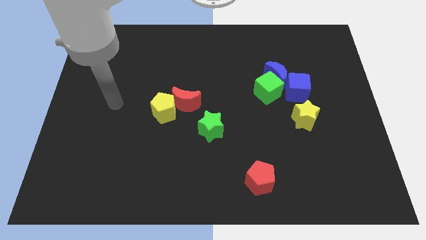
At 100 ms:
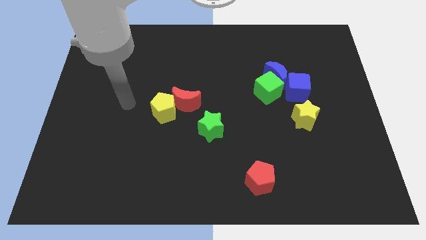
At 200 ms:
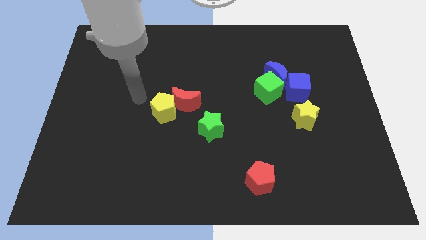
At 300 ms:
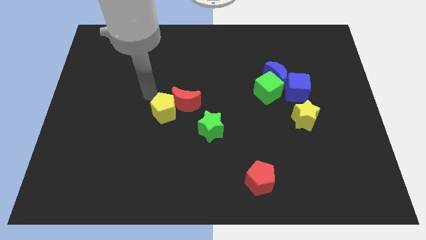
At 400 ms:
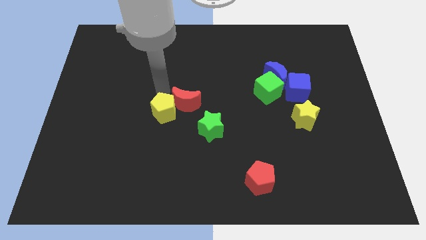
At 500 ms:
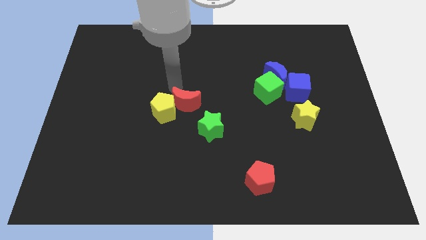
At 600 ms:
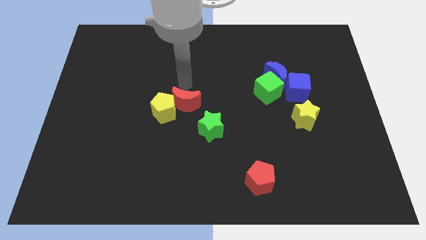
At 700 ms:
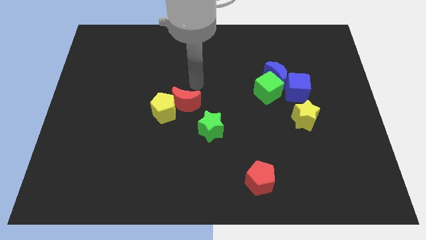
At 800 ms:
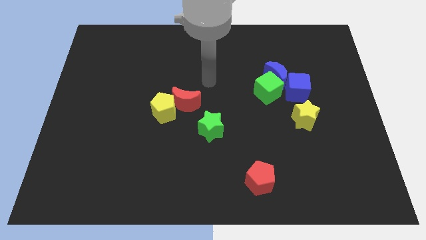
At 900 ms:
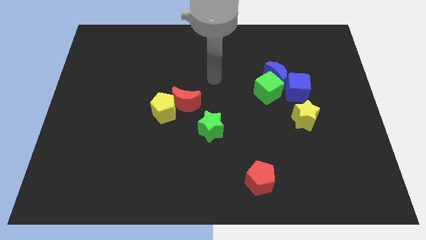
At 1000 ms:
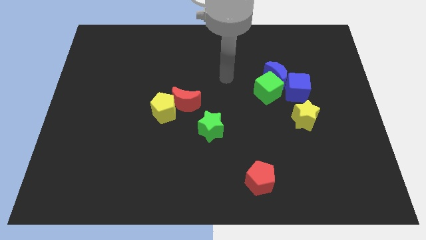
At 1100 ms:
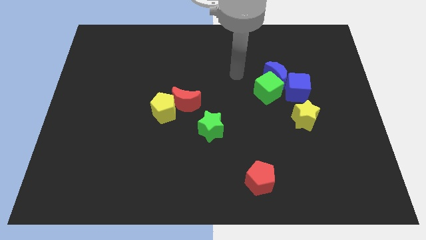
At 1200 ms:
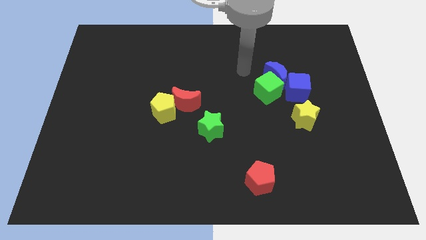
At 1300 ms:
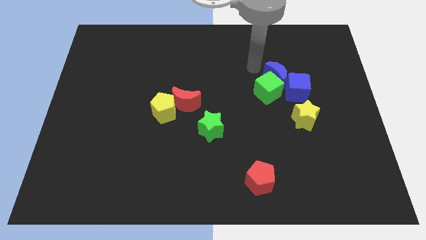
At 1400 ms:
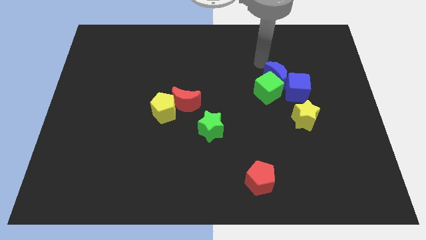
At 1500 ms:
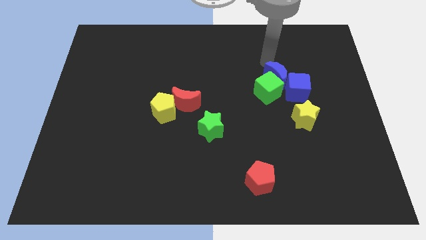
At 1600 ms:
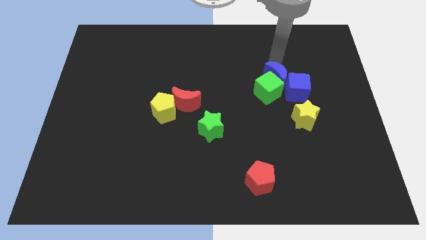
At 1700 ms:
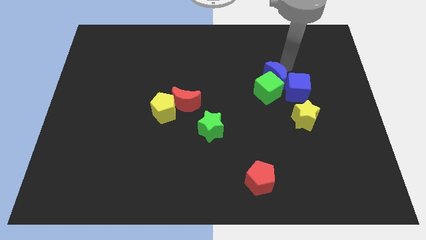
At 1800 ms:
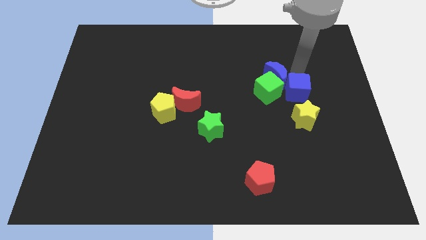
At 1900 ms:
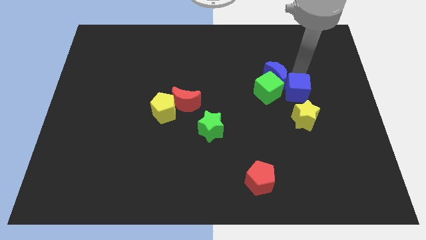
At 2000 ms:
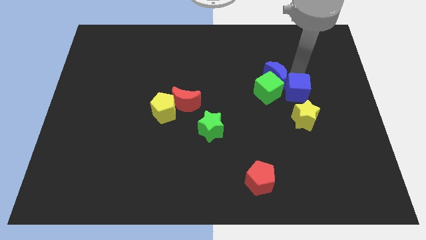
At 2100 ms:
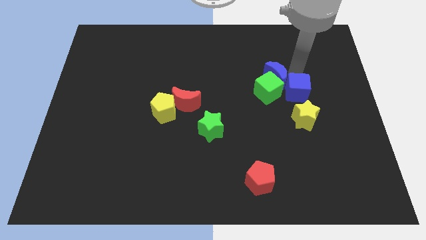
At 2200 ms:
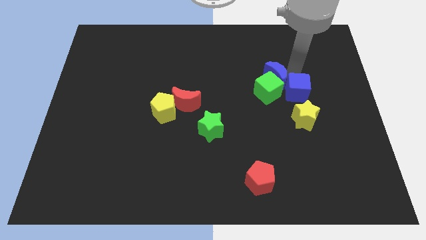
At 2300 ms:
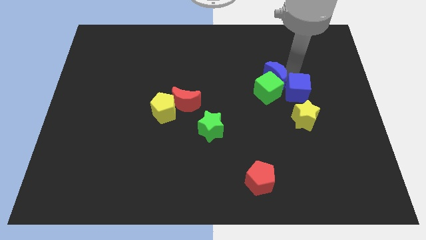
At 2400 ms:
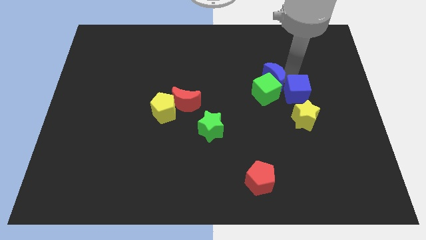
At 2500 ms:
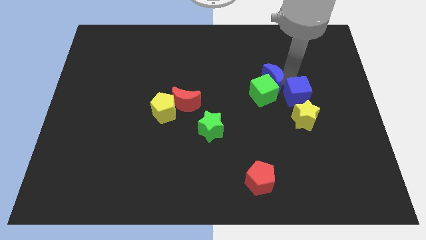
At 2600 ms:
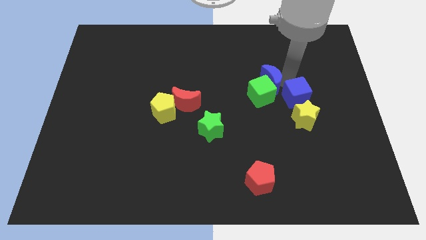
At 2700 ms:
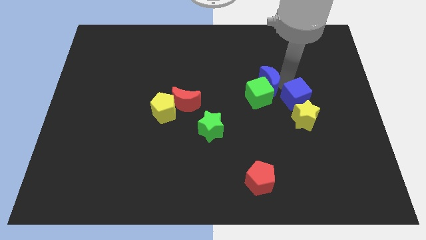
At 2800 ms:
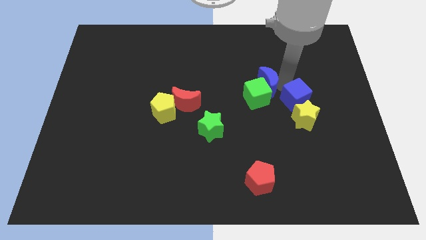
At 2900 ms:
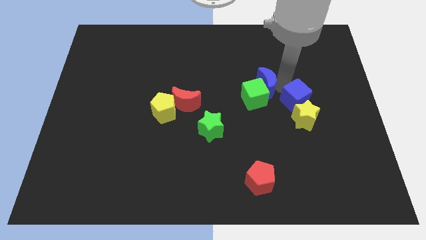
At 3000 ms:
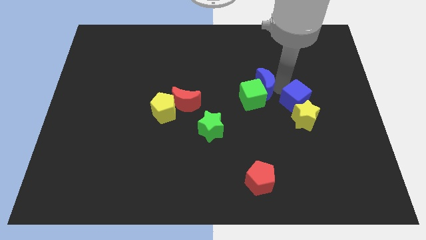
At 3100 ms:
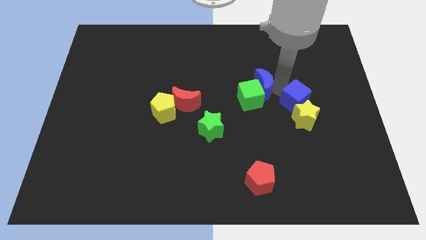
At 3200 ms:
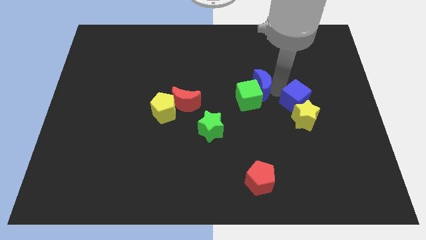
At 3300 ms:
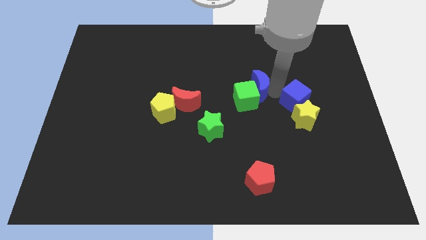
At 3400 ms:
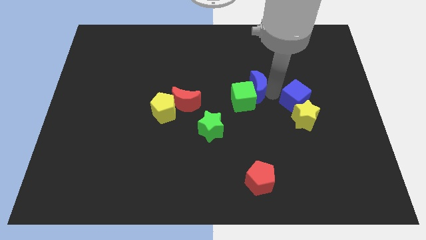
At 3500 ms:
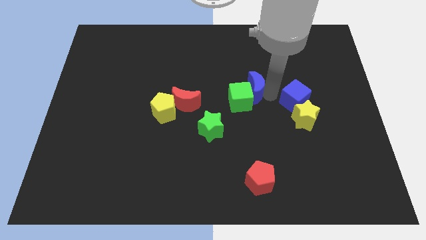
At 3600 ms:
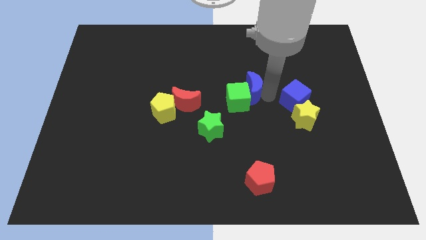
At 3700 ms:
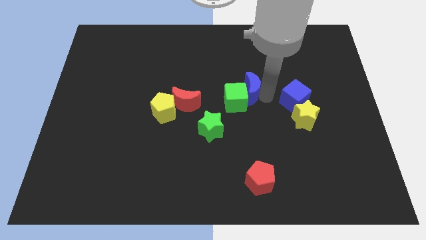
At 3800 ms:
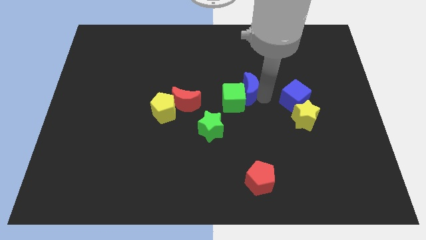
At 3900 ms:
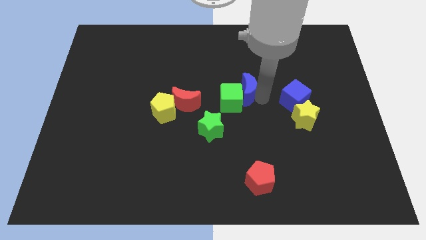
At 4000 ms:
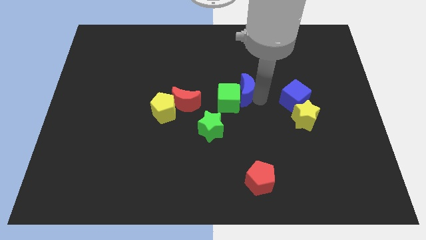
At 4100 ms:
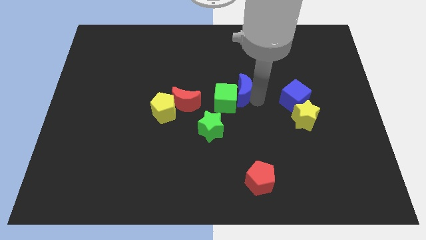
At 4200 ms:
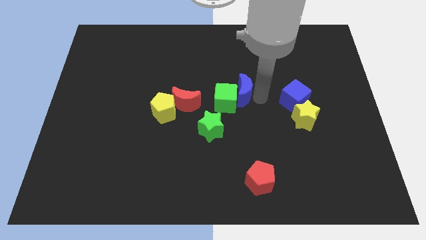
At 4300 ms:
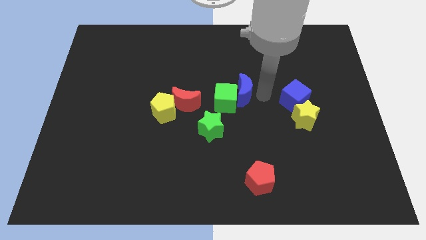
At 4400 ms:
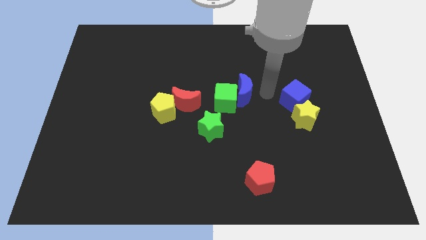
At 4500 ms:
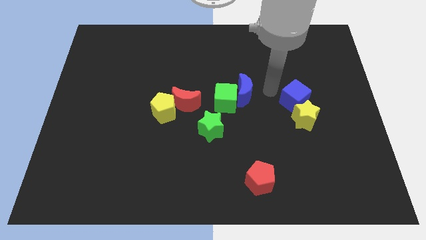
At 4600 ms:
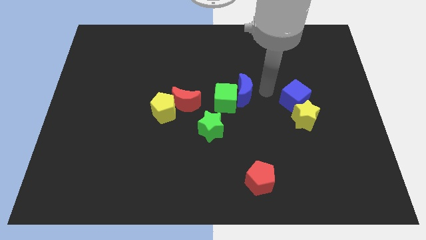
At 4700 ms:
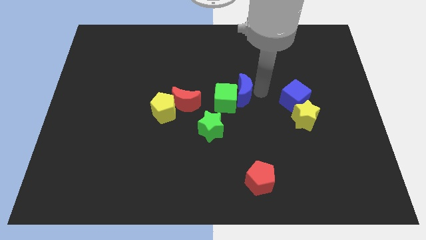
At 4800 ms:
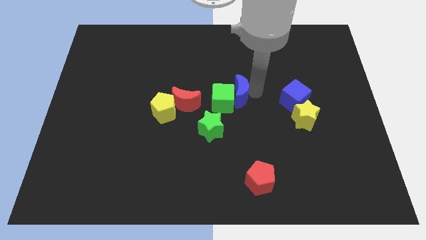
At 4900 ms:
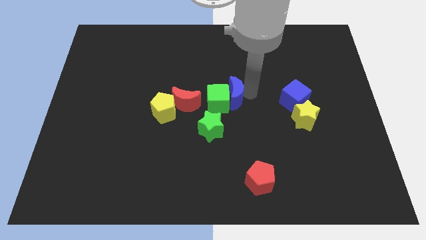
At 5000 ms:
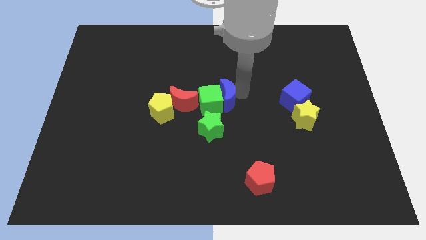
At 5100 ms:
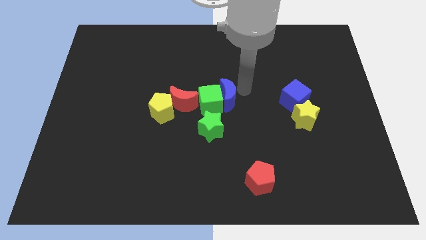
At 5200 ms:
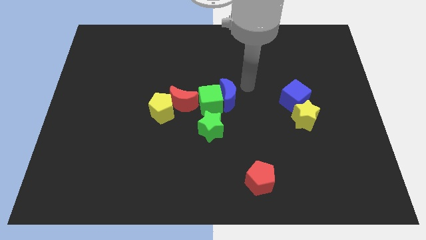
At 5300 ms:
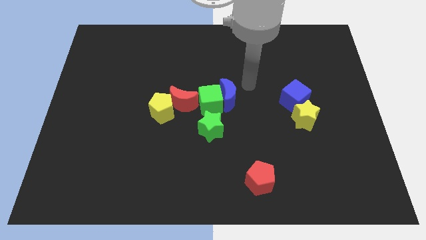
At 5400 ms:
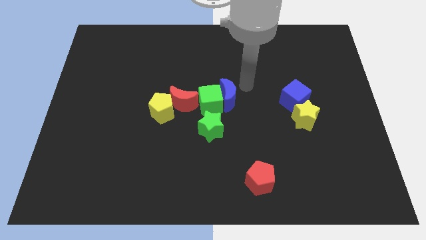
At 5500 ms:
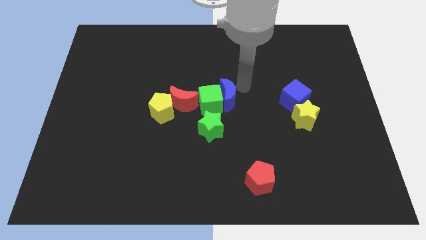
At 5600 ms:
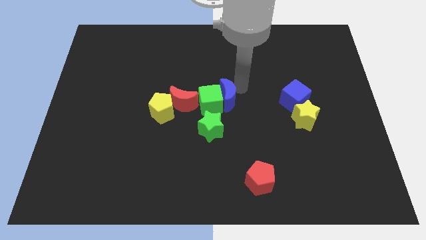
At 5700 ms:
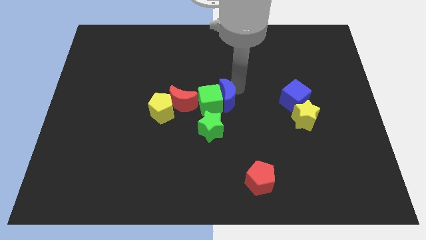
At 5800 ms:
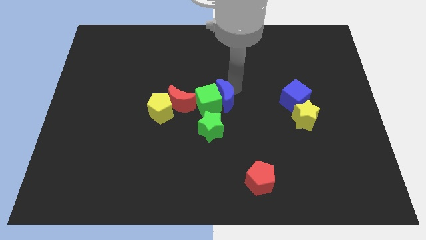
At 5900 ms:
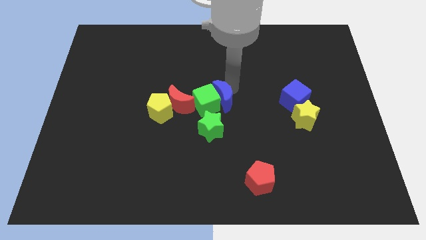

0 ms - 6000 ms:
put the blue moon just right of the yellow pentagon

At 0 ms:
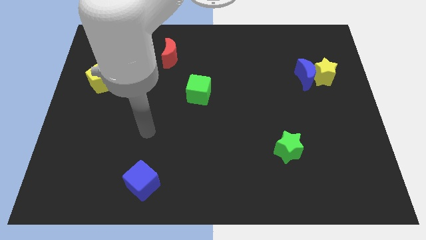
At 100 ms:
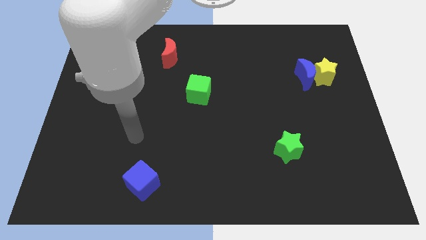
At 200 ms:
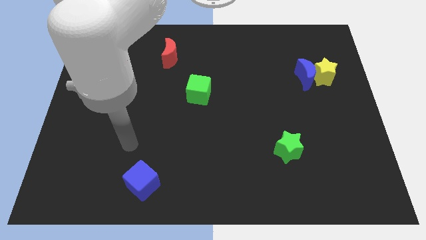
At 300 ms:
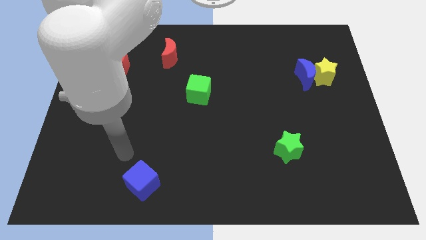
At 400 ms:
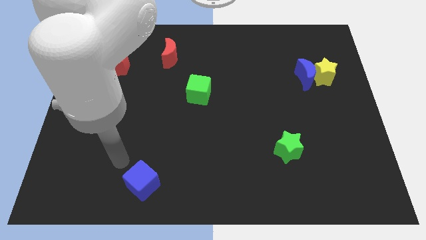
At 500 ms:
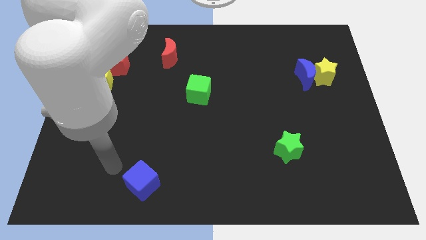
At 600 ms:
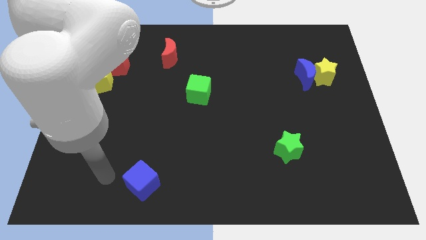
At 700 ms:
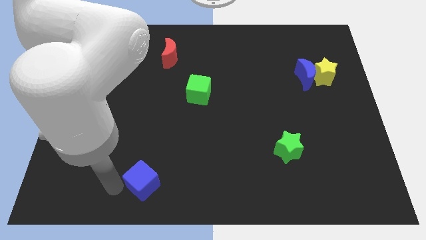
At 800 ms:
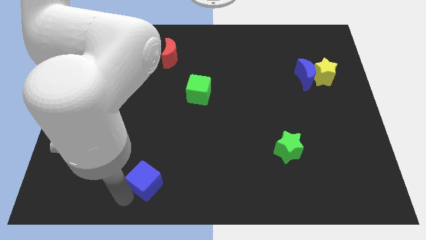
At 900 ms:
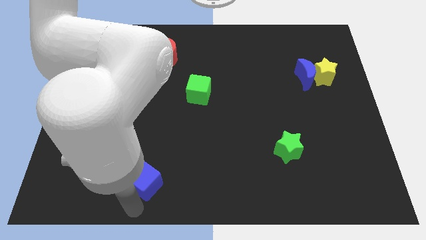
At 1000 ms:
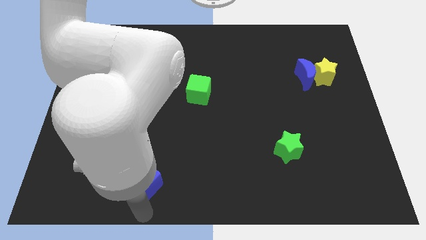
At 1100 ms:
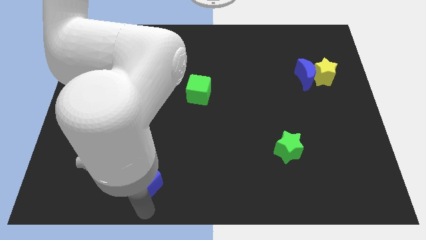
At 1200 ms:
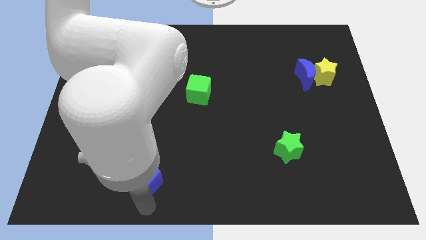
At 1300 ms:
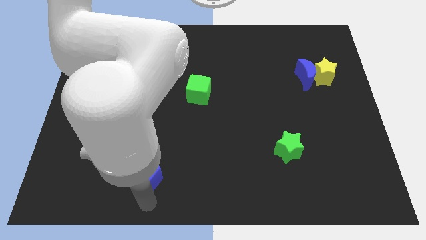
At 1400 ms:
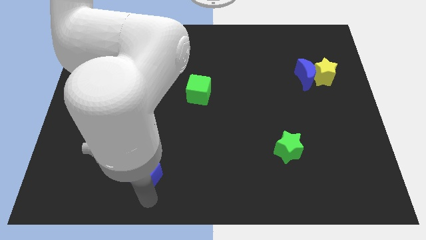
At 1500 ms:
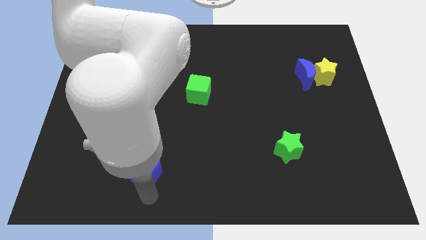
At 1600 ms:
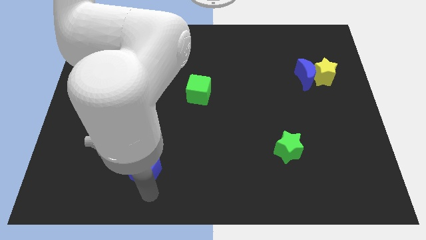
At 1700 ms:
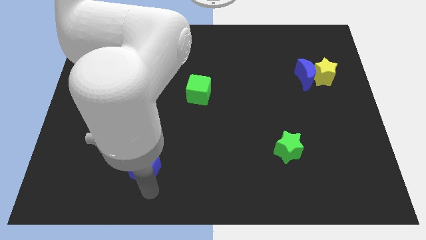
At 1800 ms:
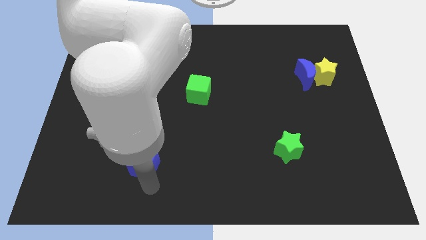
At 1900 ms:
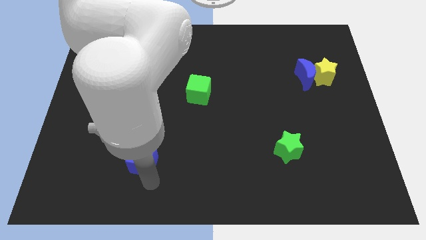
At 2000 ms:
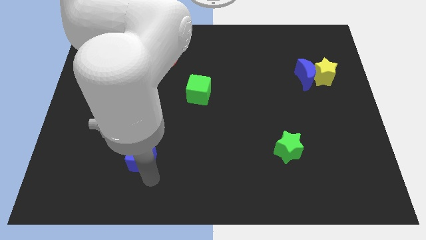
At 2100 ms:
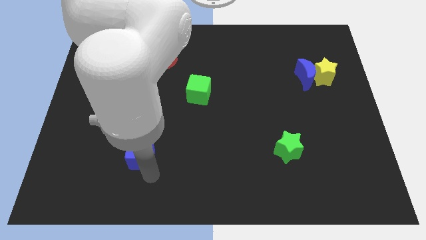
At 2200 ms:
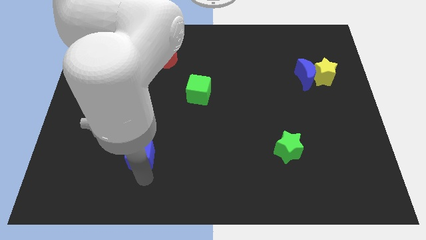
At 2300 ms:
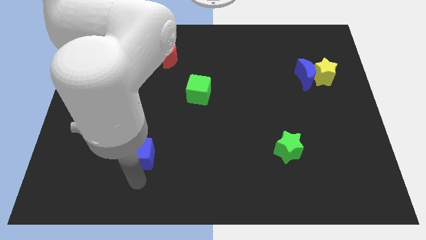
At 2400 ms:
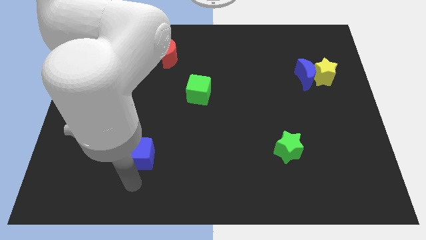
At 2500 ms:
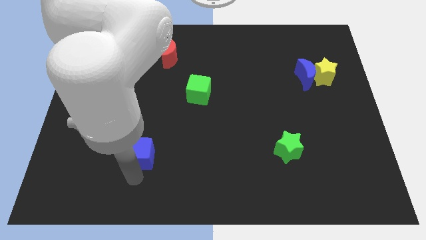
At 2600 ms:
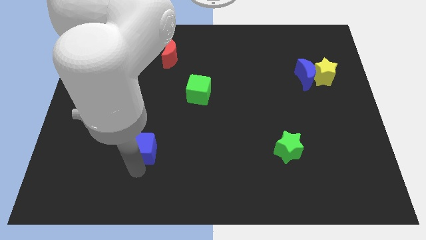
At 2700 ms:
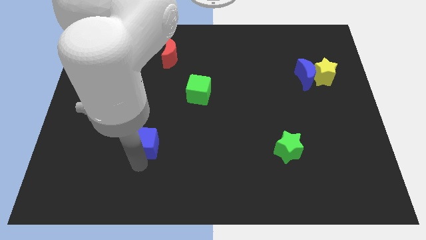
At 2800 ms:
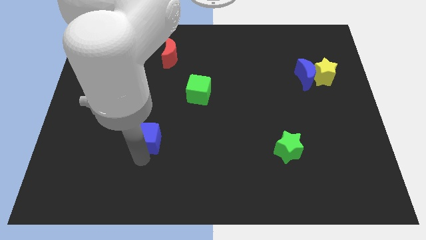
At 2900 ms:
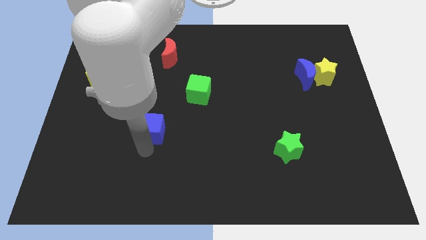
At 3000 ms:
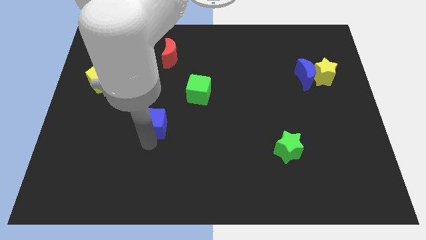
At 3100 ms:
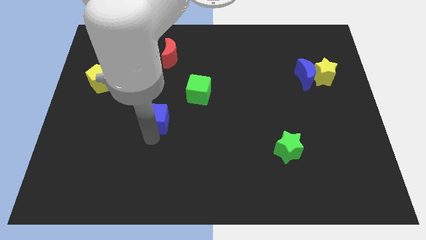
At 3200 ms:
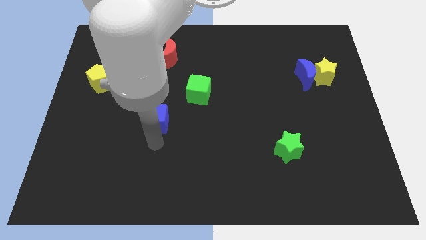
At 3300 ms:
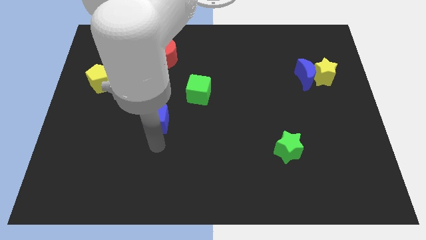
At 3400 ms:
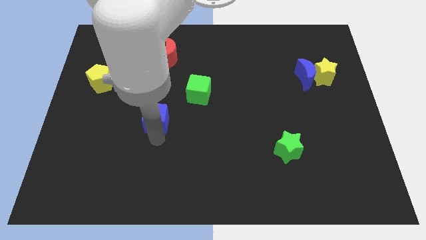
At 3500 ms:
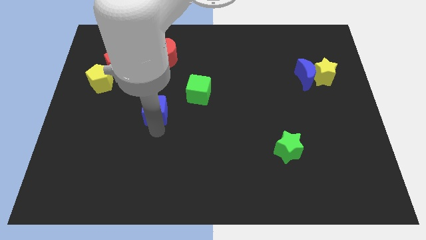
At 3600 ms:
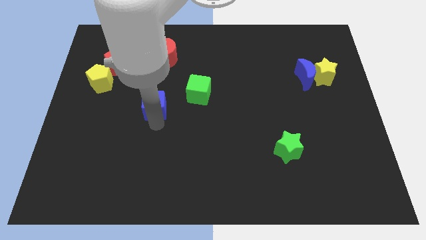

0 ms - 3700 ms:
push the blue cube to the left of the green cube
